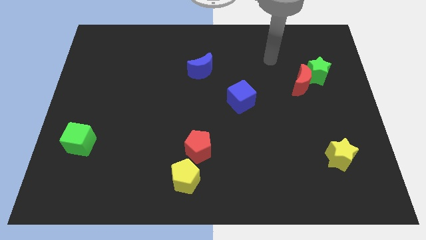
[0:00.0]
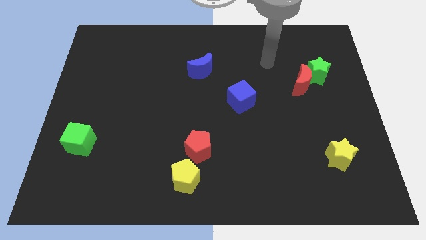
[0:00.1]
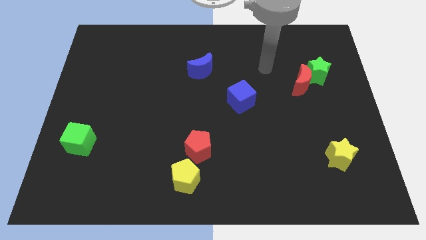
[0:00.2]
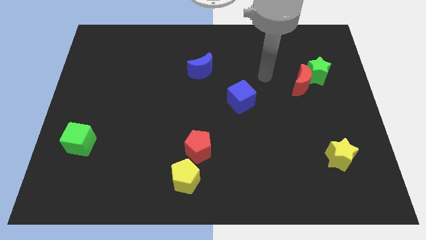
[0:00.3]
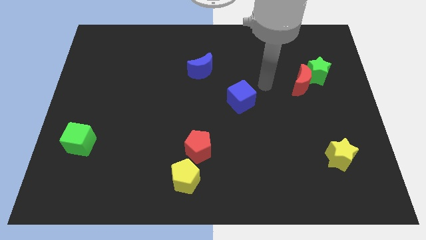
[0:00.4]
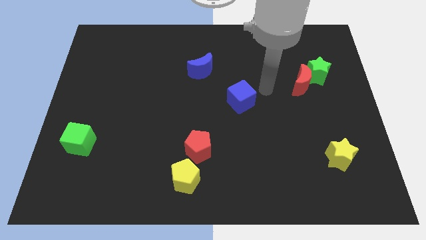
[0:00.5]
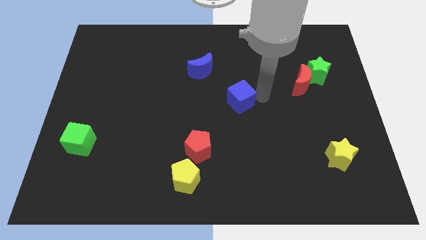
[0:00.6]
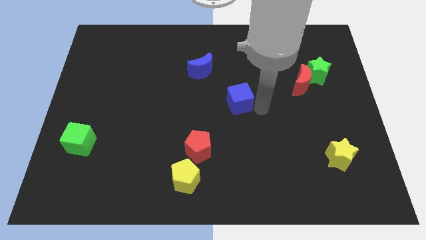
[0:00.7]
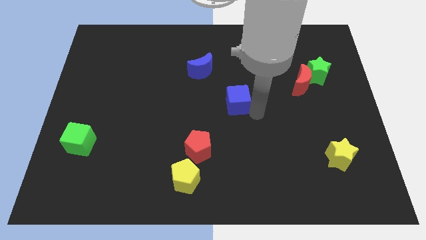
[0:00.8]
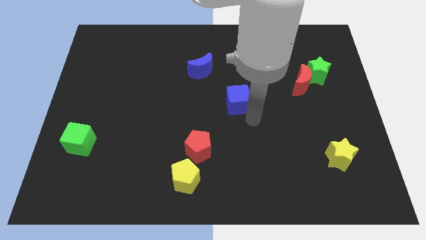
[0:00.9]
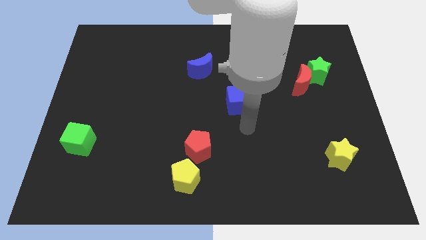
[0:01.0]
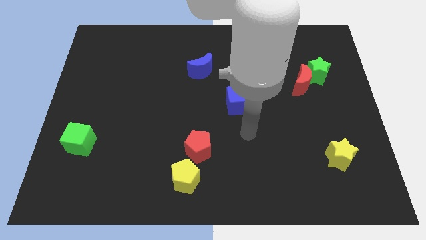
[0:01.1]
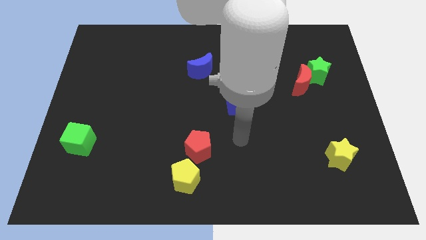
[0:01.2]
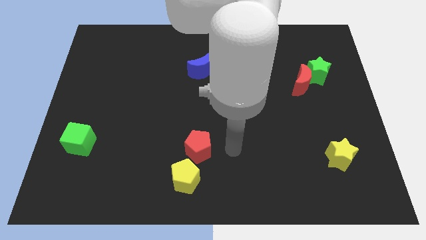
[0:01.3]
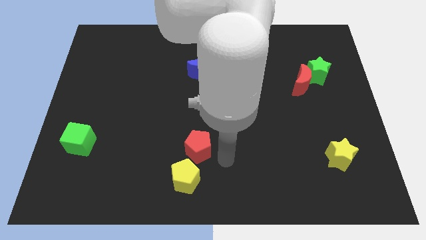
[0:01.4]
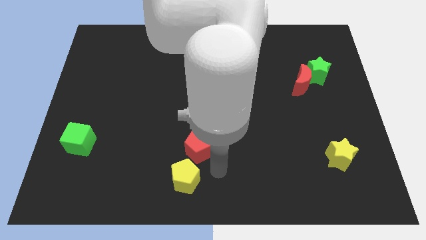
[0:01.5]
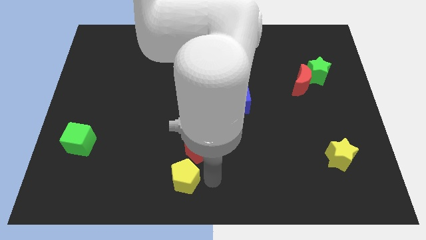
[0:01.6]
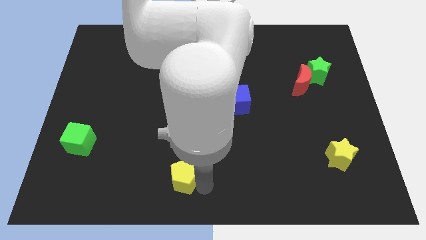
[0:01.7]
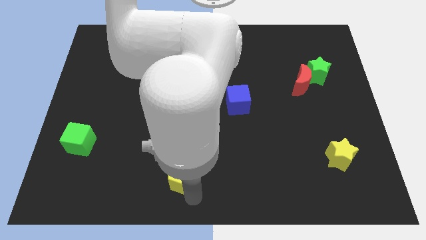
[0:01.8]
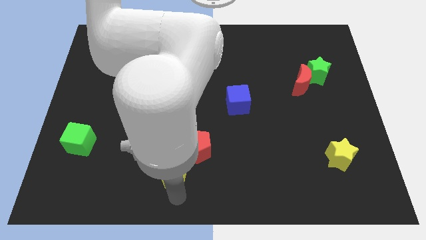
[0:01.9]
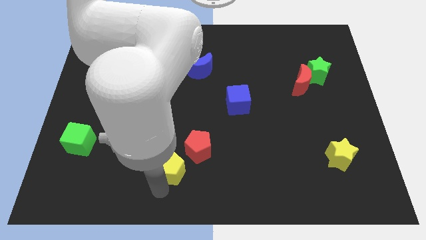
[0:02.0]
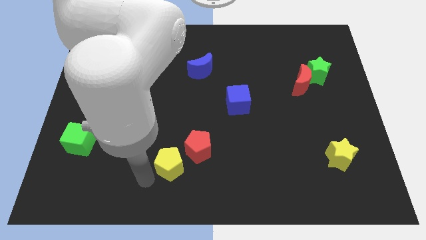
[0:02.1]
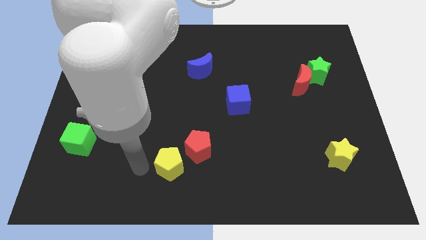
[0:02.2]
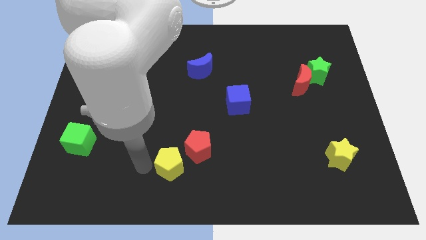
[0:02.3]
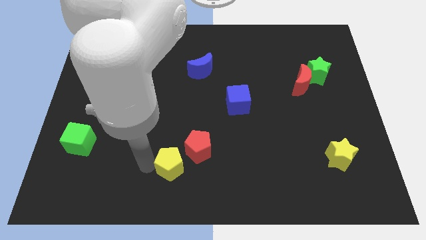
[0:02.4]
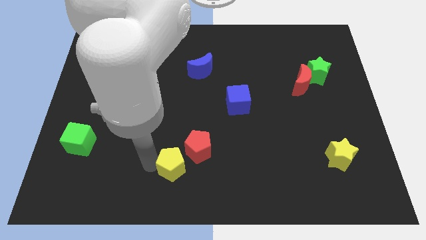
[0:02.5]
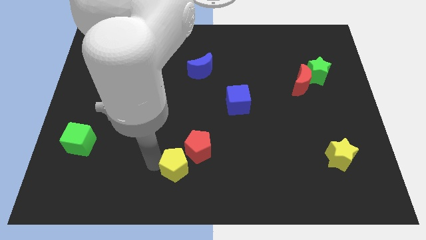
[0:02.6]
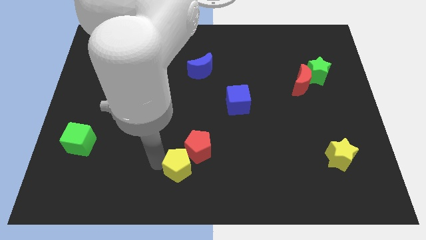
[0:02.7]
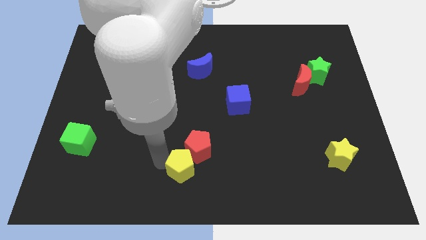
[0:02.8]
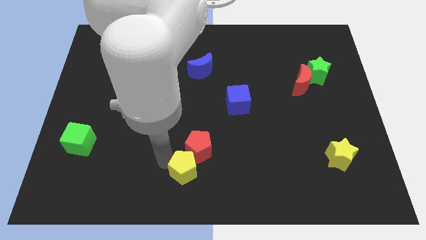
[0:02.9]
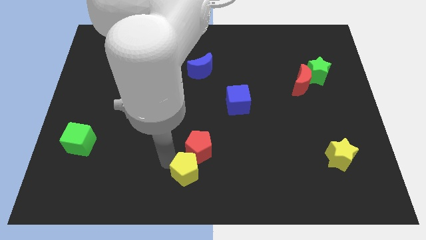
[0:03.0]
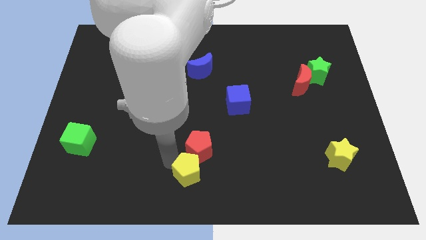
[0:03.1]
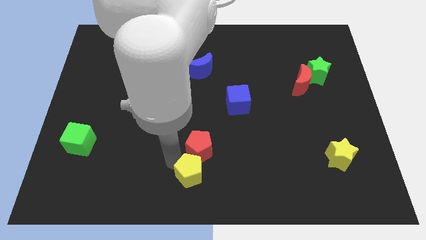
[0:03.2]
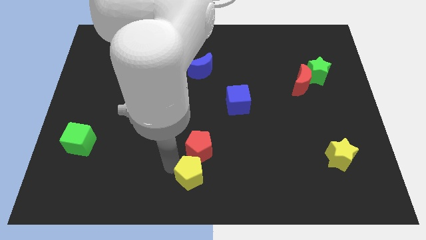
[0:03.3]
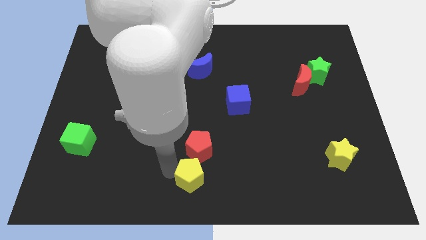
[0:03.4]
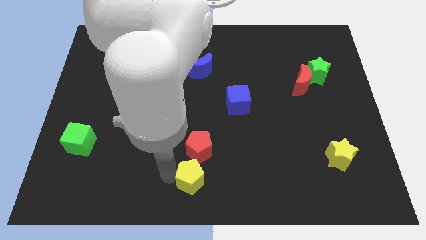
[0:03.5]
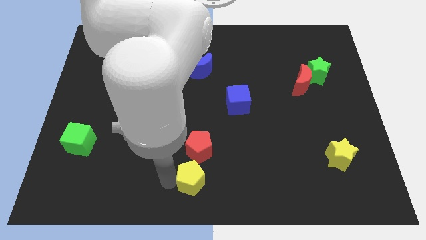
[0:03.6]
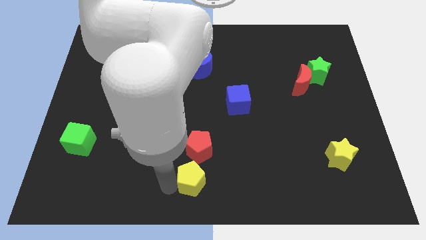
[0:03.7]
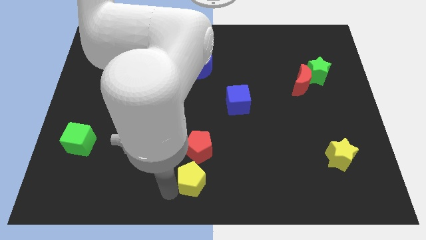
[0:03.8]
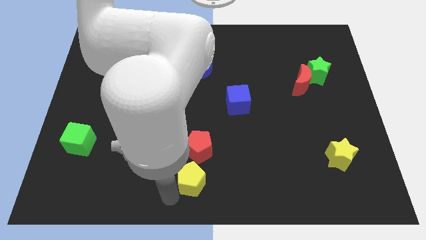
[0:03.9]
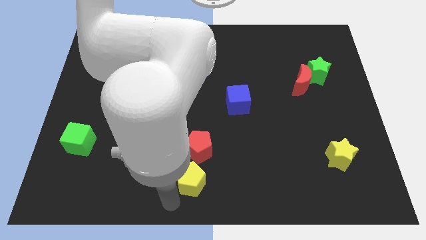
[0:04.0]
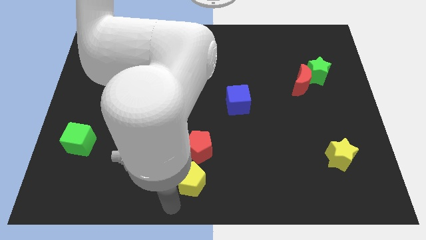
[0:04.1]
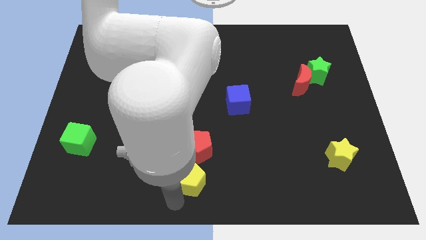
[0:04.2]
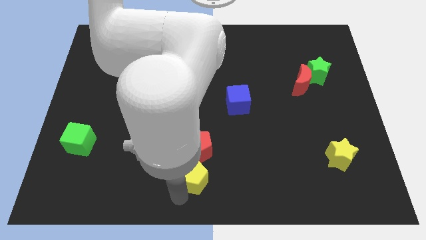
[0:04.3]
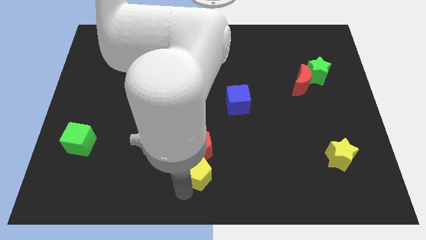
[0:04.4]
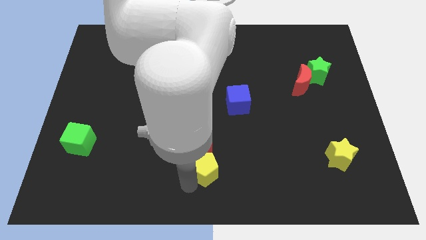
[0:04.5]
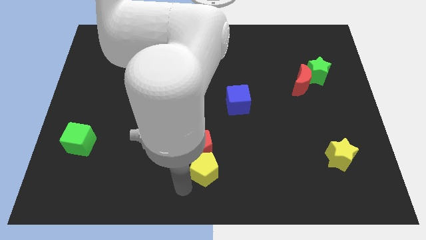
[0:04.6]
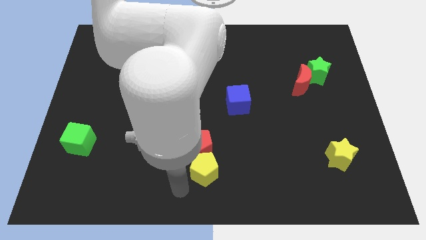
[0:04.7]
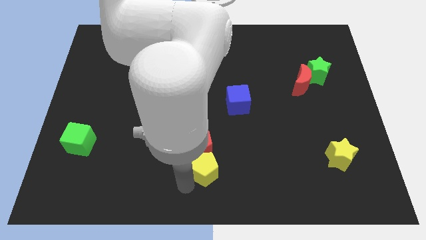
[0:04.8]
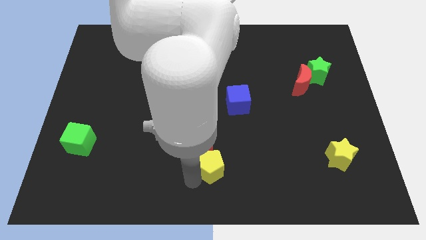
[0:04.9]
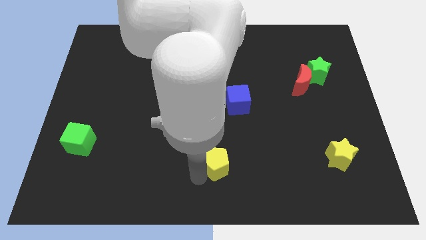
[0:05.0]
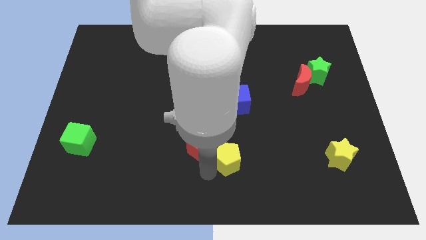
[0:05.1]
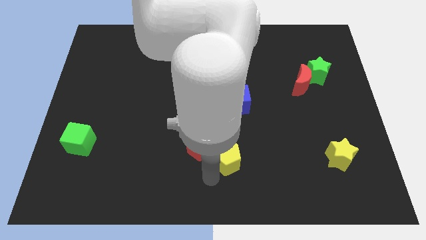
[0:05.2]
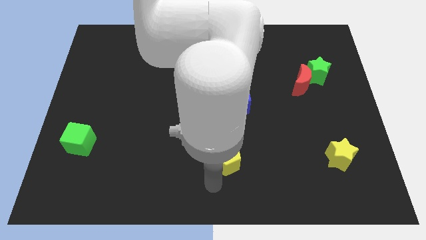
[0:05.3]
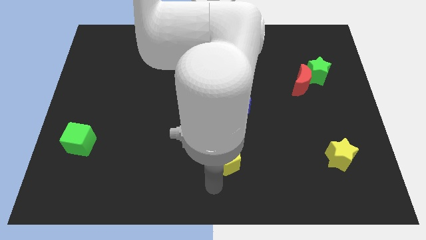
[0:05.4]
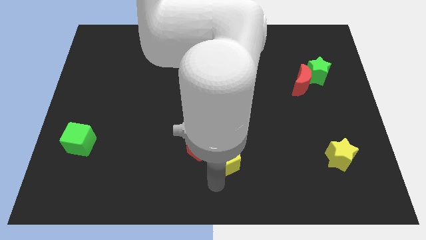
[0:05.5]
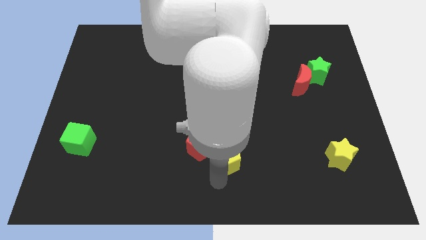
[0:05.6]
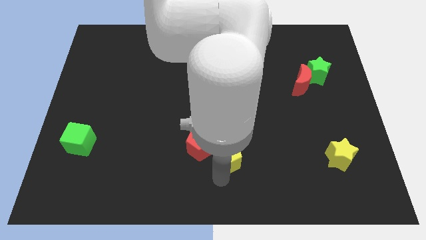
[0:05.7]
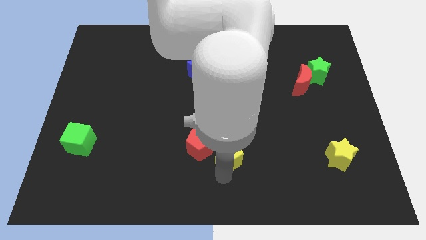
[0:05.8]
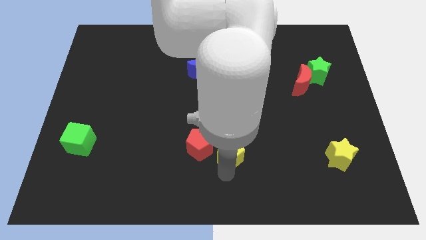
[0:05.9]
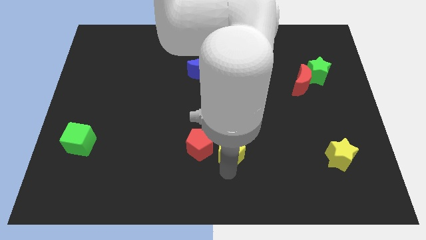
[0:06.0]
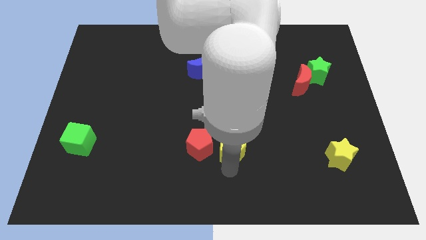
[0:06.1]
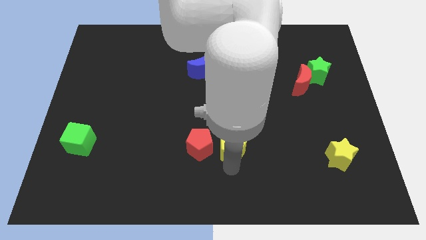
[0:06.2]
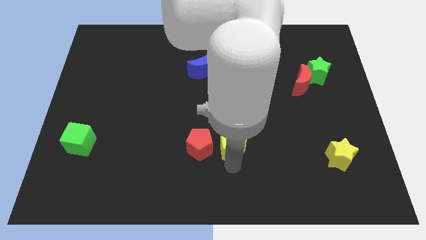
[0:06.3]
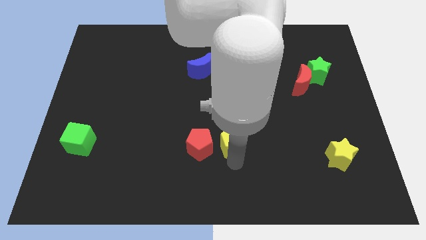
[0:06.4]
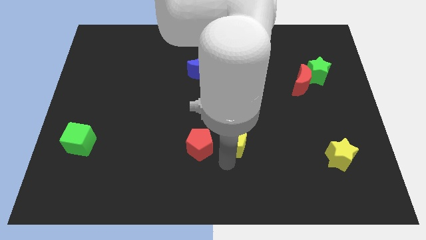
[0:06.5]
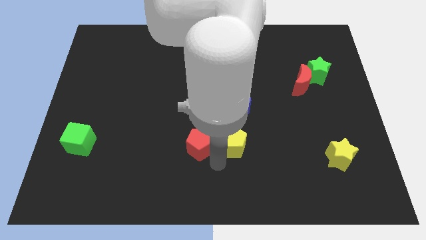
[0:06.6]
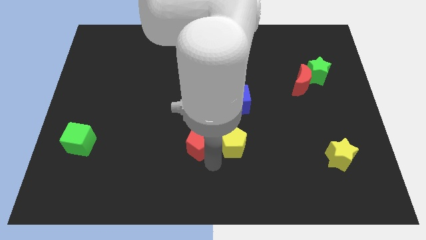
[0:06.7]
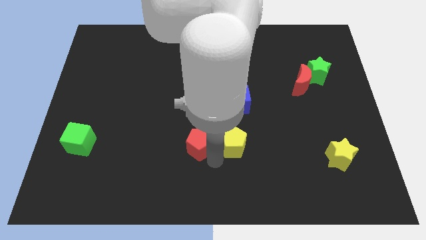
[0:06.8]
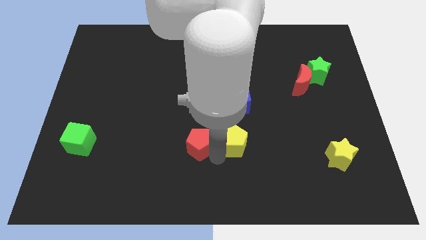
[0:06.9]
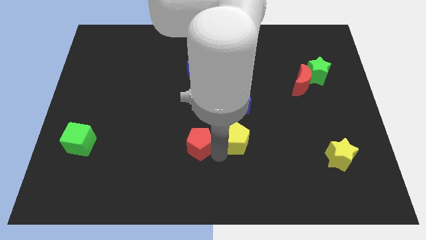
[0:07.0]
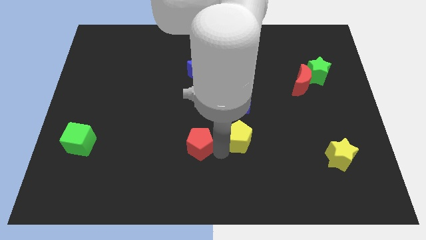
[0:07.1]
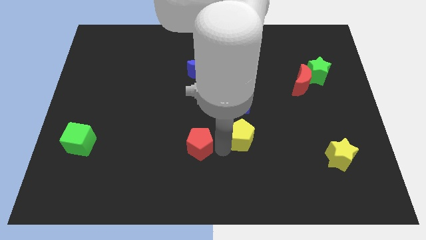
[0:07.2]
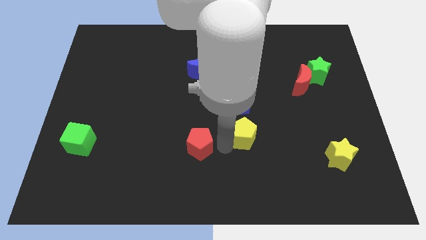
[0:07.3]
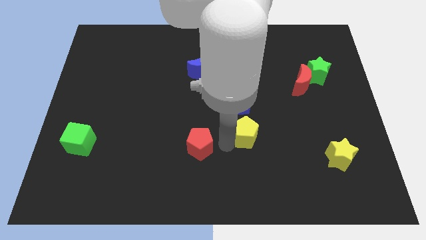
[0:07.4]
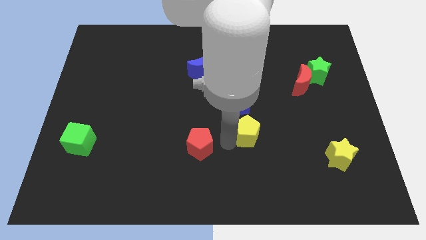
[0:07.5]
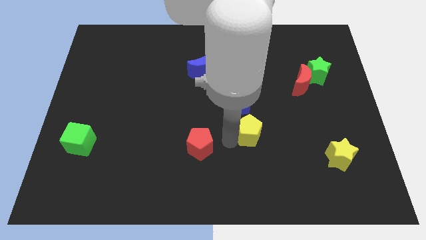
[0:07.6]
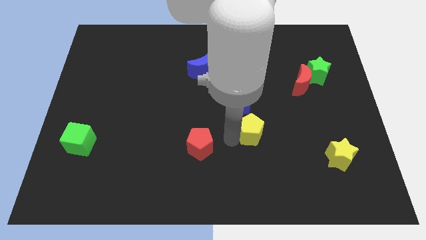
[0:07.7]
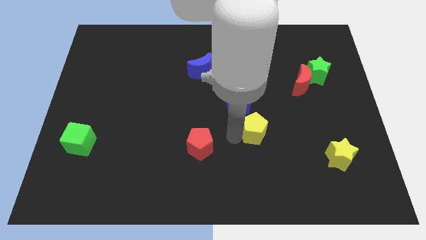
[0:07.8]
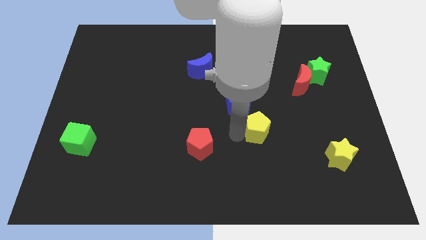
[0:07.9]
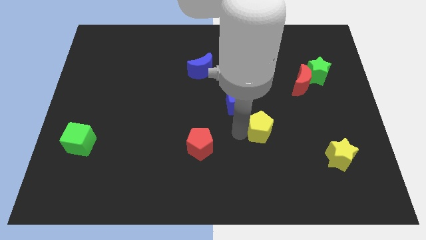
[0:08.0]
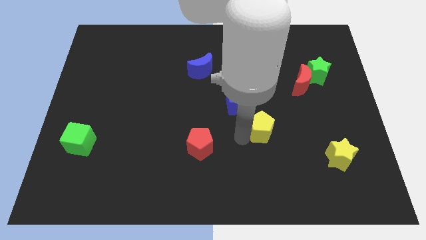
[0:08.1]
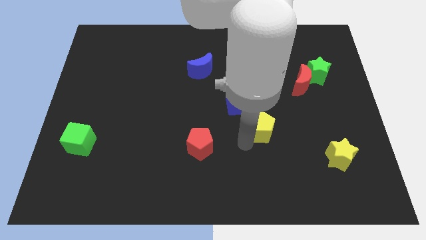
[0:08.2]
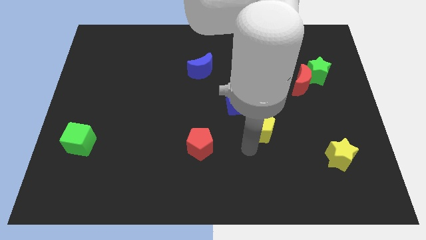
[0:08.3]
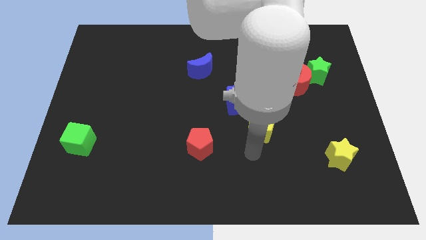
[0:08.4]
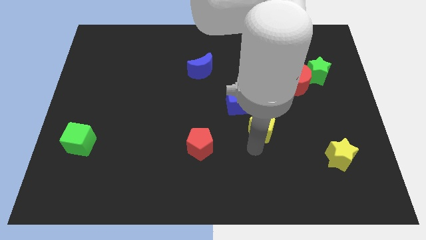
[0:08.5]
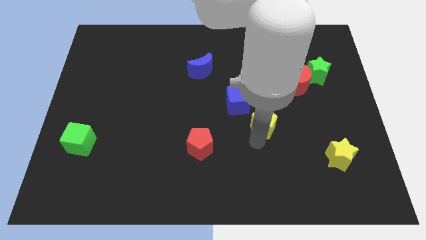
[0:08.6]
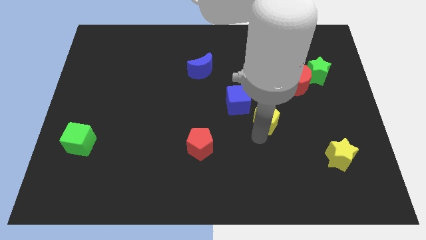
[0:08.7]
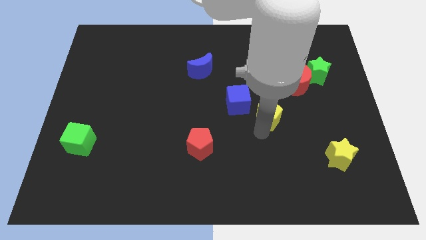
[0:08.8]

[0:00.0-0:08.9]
push the yellow pentagon to the right side of the blue cube
